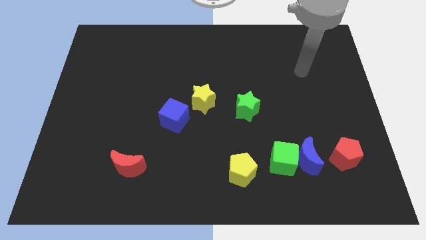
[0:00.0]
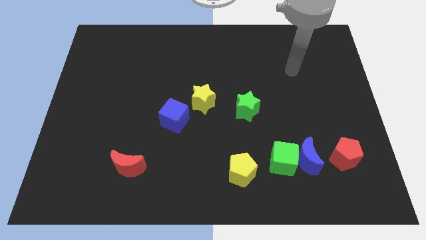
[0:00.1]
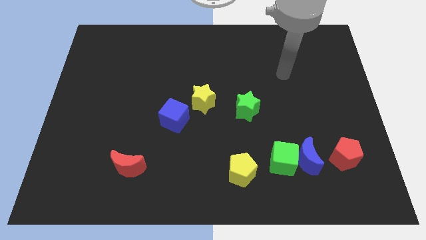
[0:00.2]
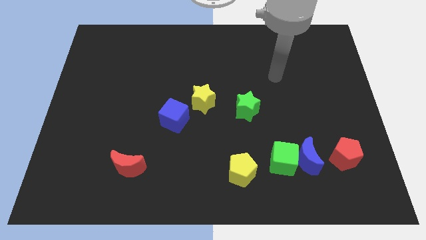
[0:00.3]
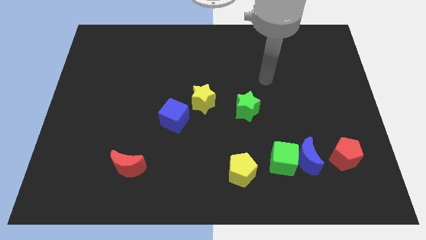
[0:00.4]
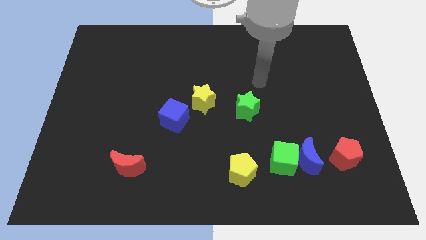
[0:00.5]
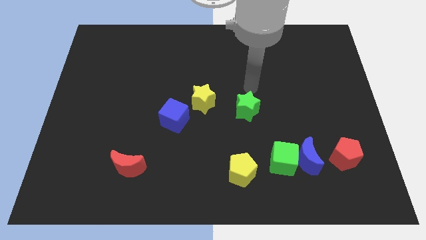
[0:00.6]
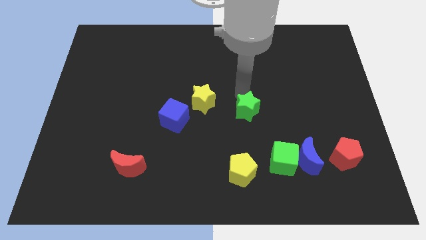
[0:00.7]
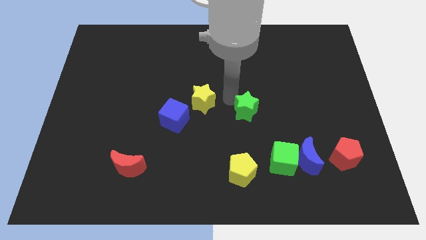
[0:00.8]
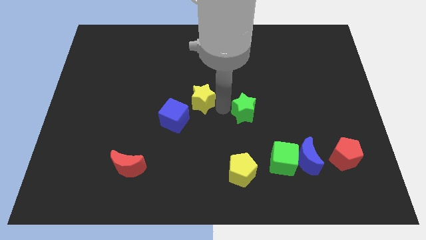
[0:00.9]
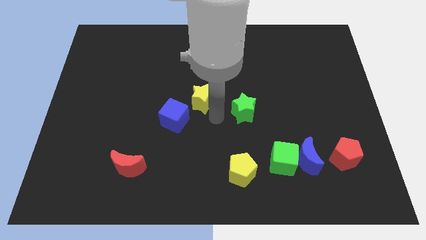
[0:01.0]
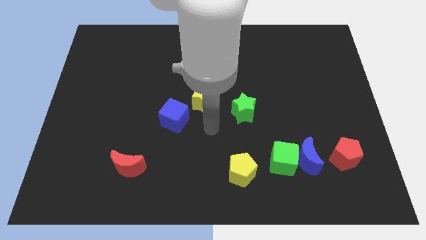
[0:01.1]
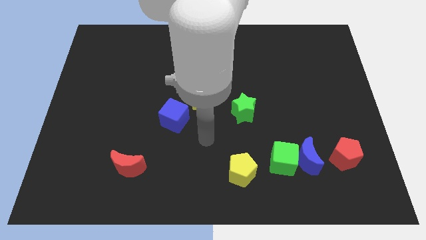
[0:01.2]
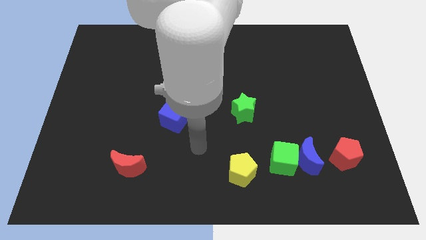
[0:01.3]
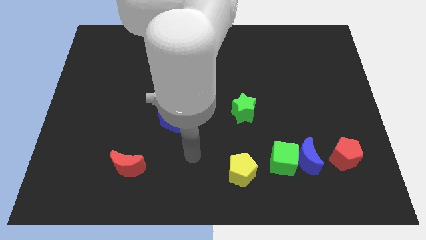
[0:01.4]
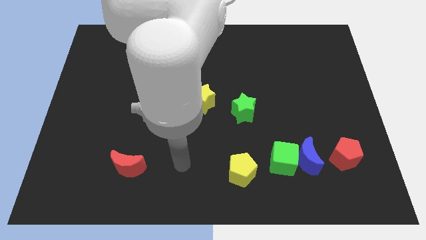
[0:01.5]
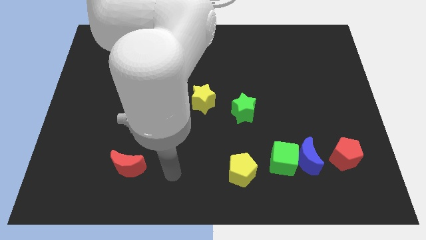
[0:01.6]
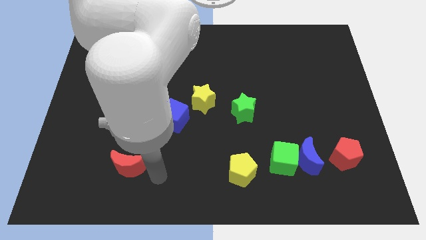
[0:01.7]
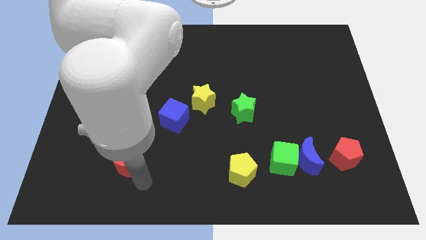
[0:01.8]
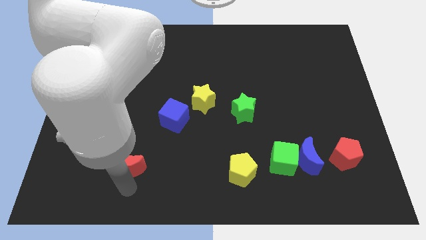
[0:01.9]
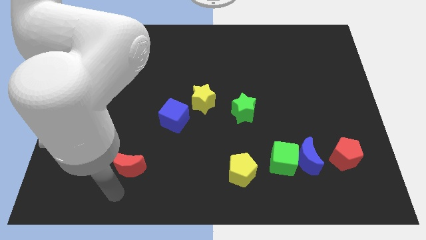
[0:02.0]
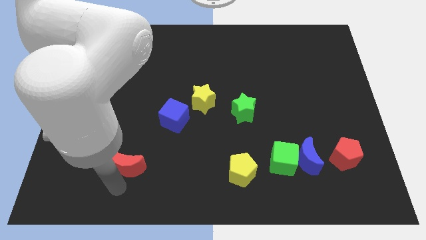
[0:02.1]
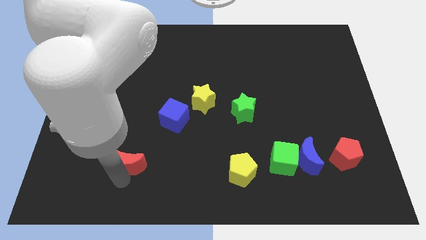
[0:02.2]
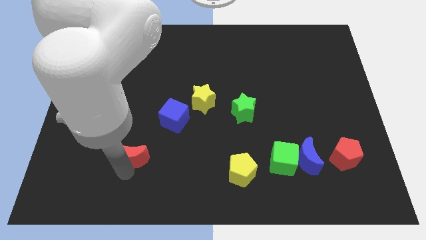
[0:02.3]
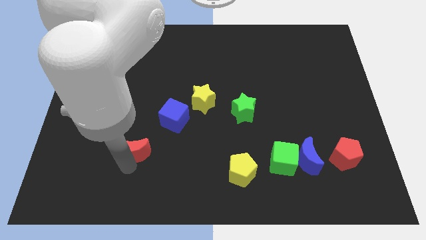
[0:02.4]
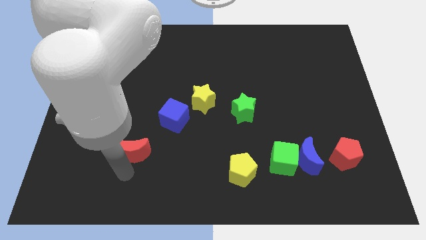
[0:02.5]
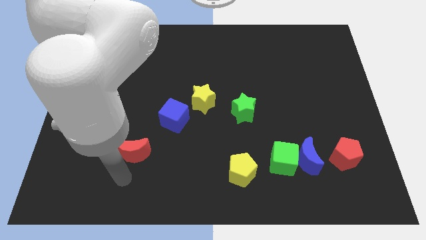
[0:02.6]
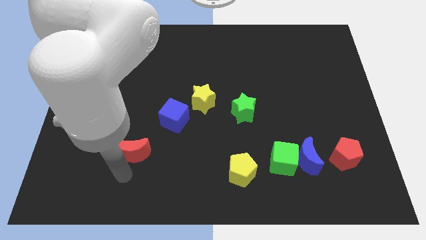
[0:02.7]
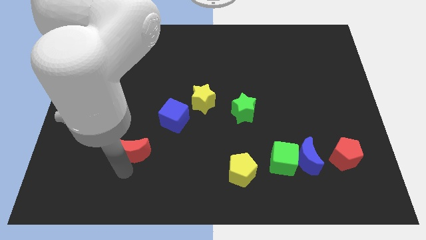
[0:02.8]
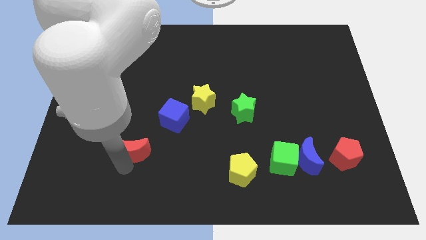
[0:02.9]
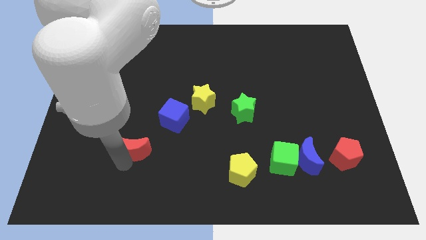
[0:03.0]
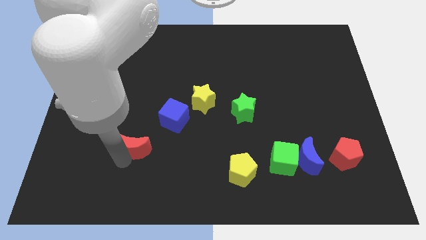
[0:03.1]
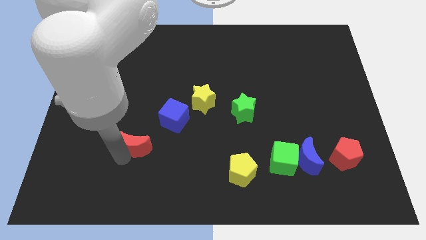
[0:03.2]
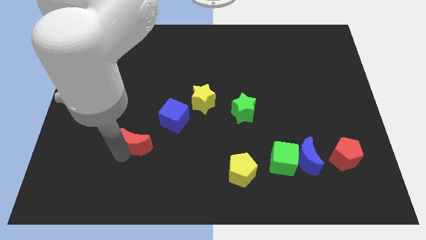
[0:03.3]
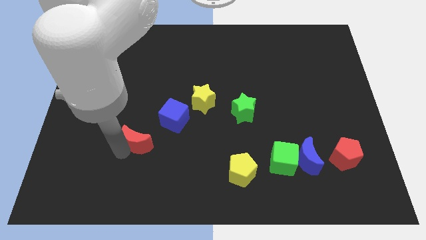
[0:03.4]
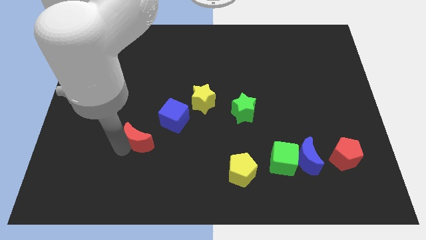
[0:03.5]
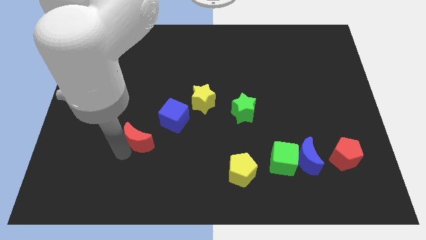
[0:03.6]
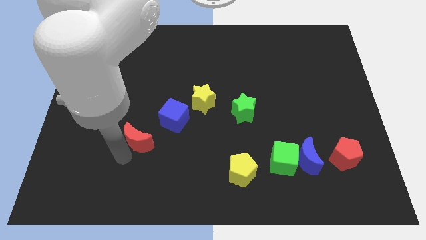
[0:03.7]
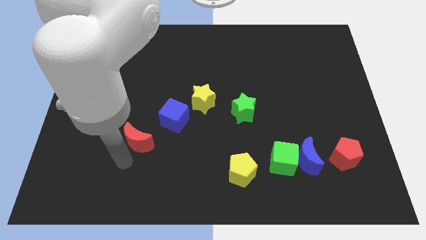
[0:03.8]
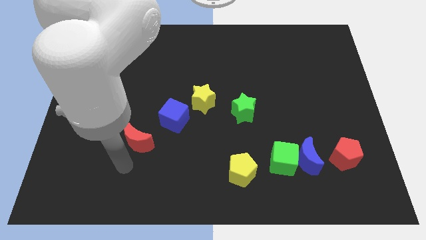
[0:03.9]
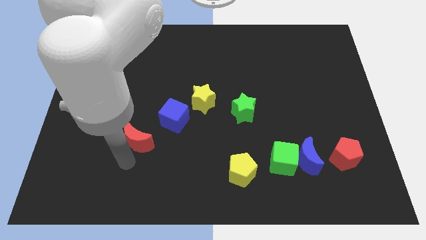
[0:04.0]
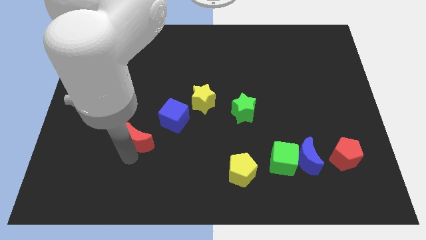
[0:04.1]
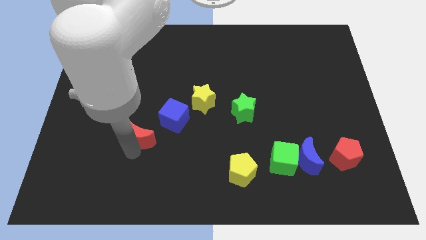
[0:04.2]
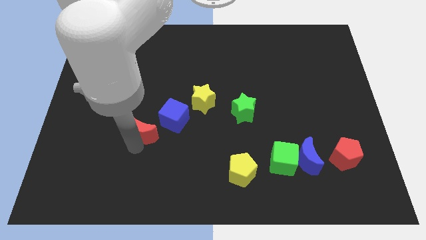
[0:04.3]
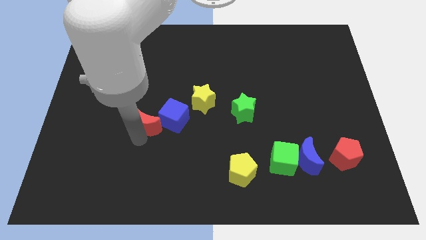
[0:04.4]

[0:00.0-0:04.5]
push the red moon a little bit up and to the right diagonally

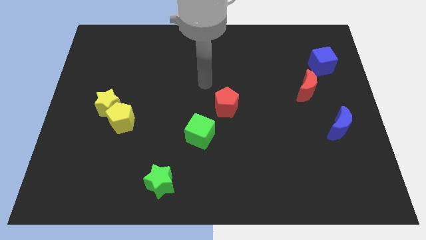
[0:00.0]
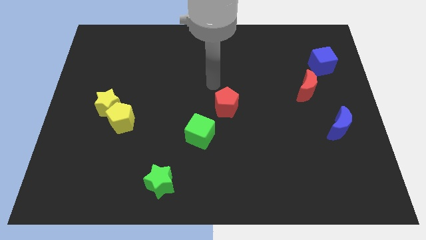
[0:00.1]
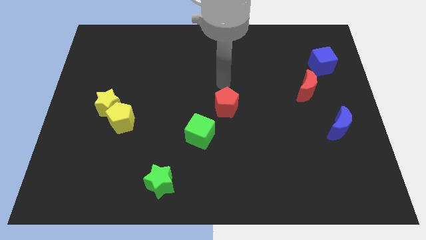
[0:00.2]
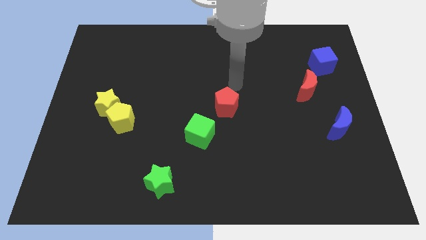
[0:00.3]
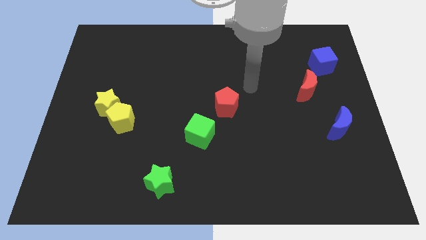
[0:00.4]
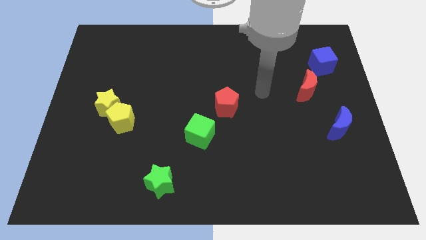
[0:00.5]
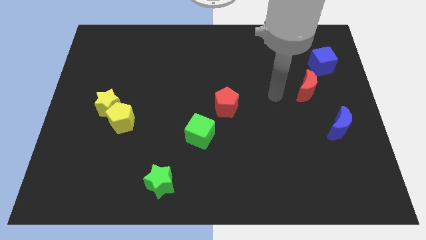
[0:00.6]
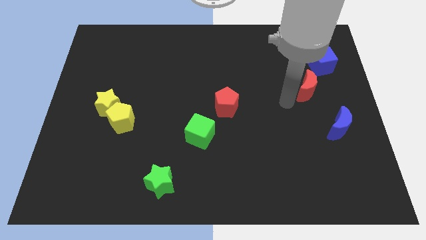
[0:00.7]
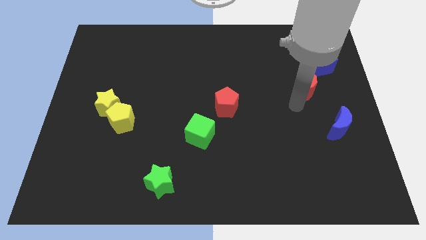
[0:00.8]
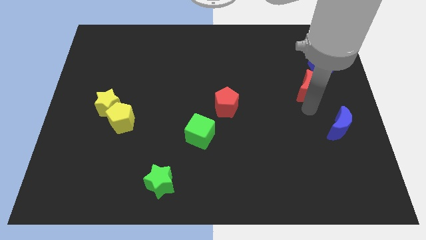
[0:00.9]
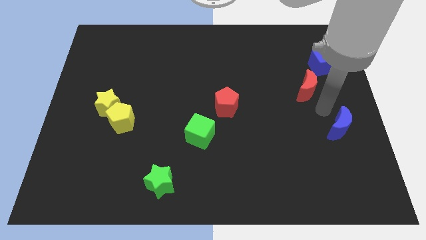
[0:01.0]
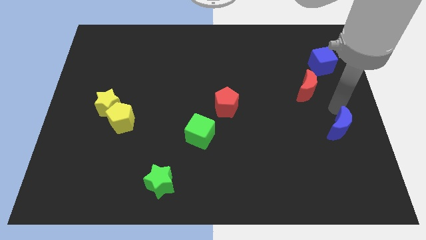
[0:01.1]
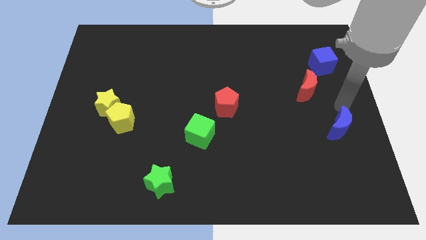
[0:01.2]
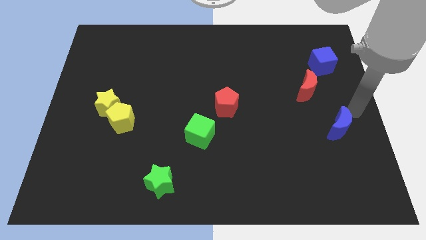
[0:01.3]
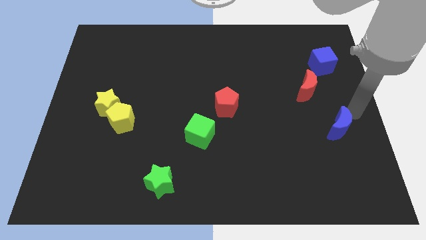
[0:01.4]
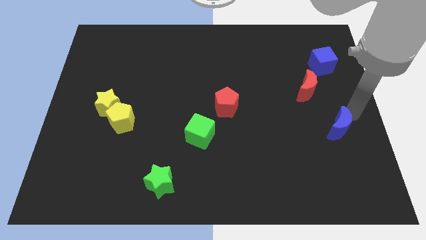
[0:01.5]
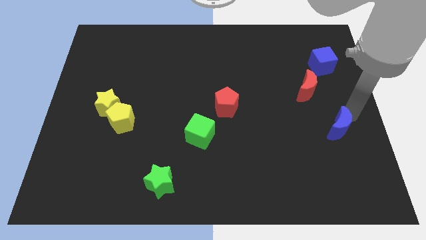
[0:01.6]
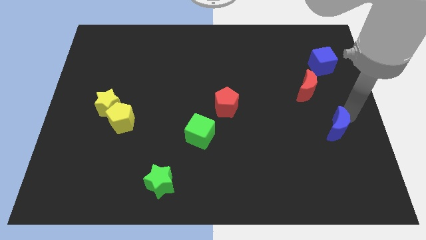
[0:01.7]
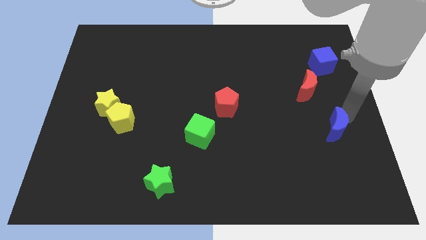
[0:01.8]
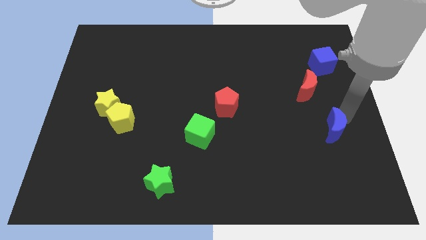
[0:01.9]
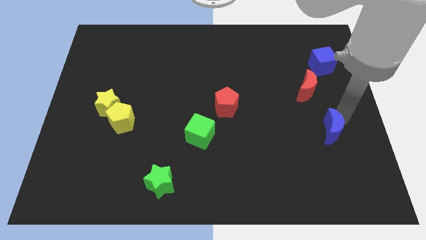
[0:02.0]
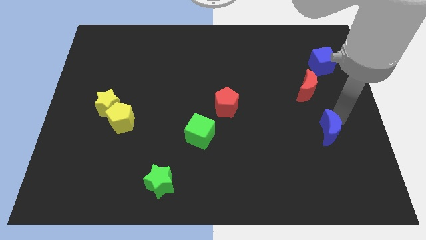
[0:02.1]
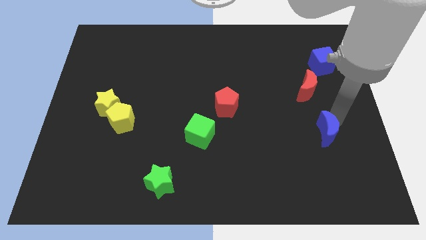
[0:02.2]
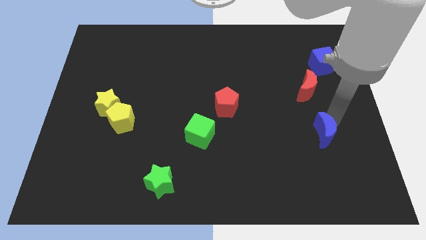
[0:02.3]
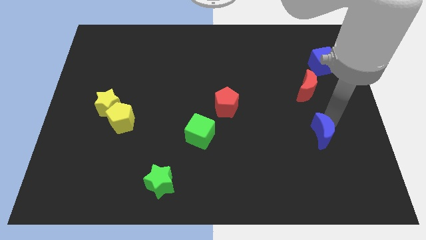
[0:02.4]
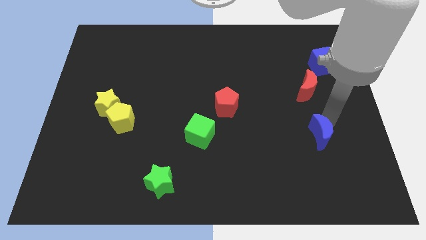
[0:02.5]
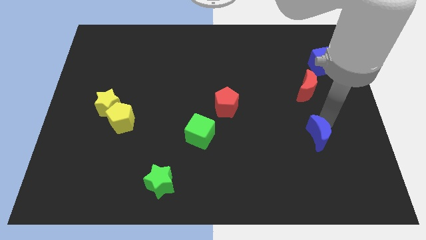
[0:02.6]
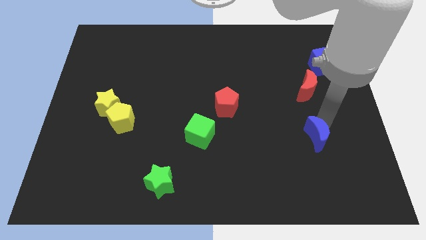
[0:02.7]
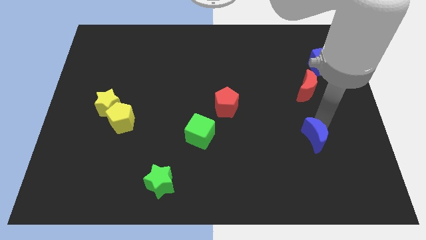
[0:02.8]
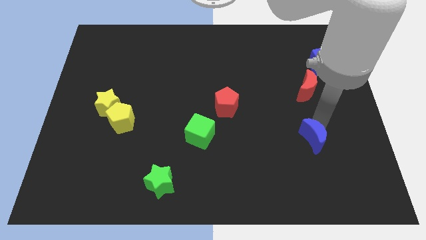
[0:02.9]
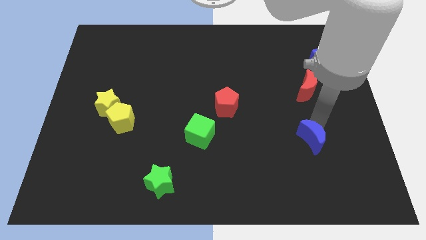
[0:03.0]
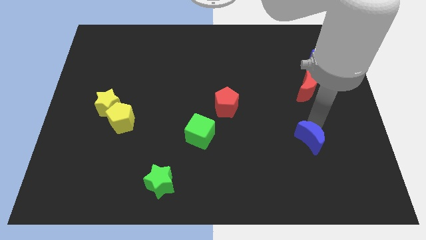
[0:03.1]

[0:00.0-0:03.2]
move the blue moon diagonally down and left a little bit

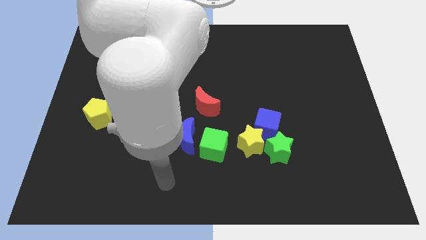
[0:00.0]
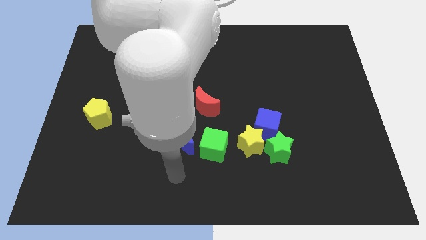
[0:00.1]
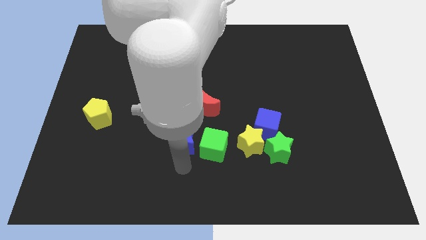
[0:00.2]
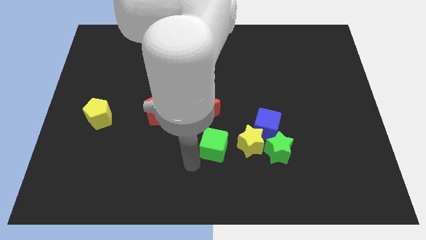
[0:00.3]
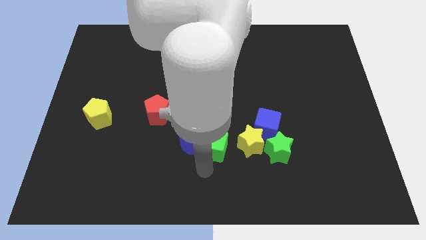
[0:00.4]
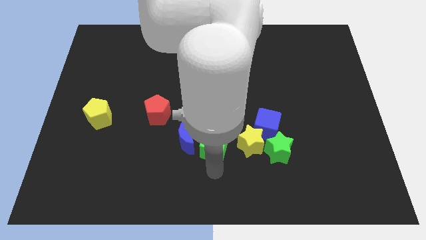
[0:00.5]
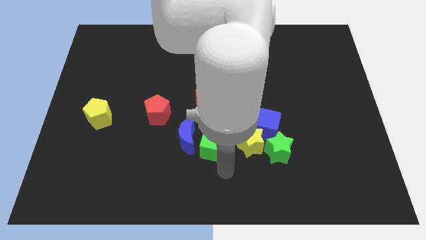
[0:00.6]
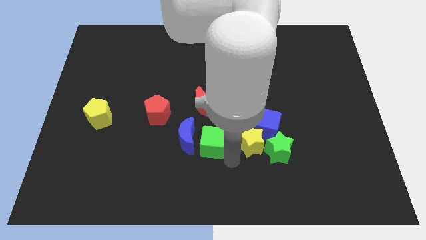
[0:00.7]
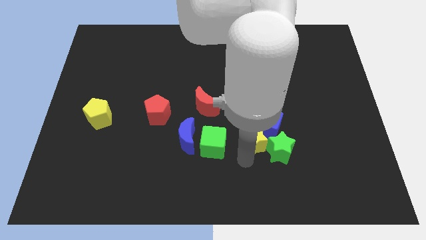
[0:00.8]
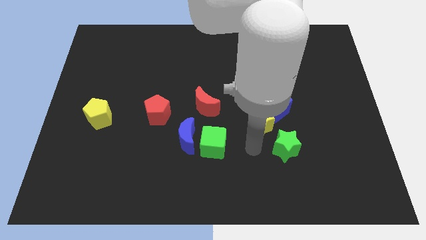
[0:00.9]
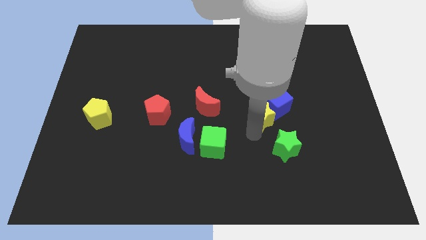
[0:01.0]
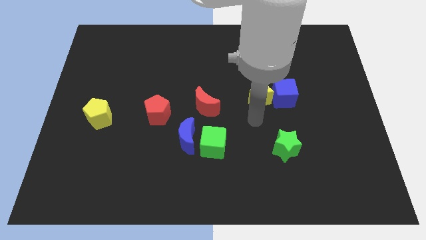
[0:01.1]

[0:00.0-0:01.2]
push the blue cube diagonally up and to the right slightly
